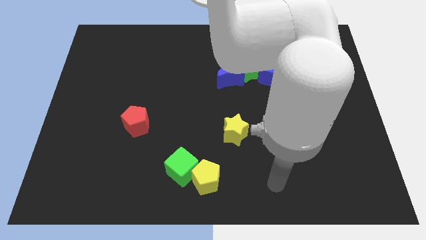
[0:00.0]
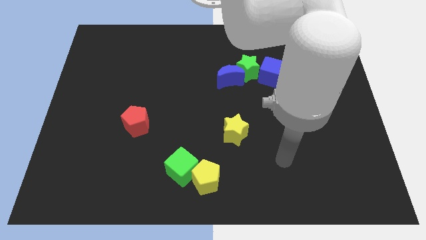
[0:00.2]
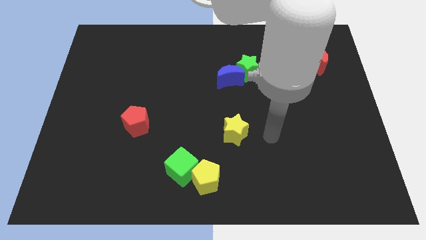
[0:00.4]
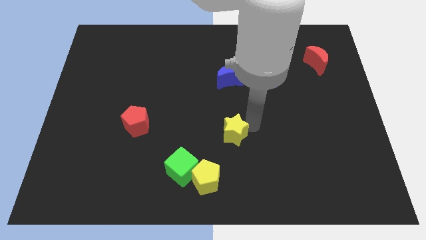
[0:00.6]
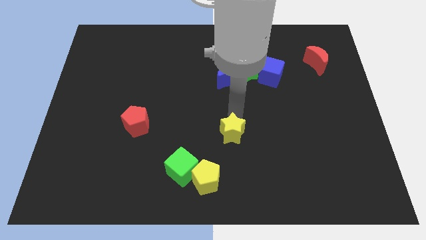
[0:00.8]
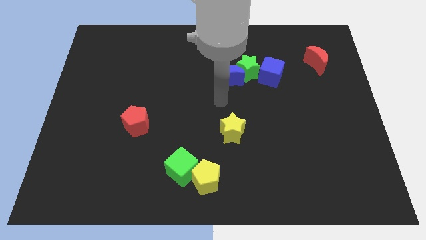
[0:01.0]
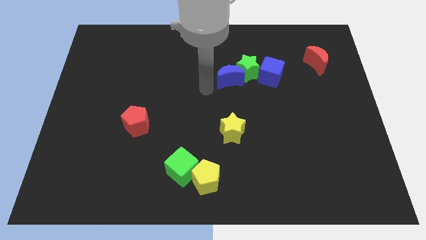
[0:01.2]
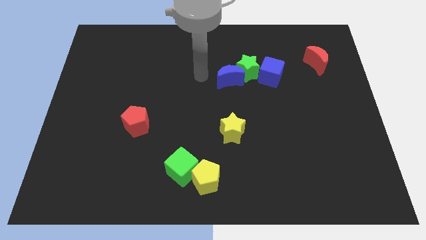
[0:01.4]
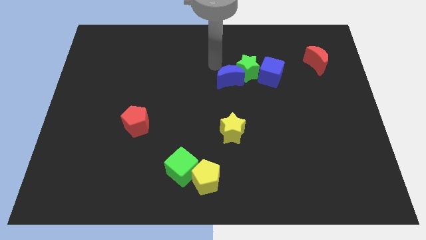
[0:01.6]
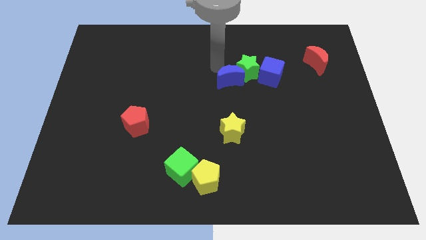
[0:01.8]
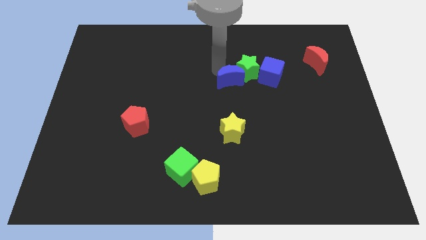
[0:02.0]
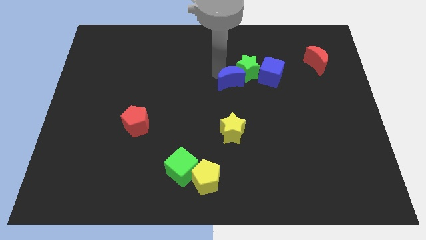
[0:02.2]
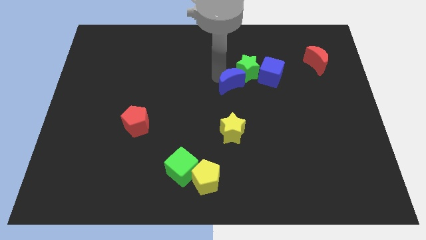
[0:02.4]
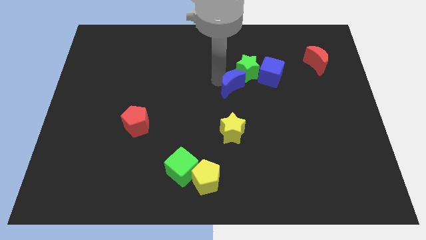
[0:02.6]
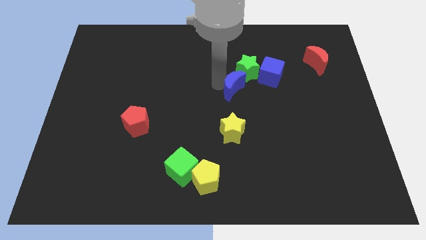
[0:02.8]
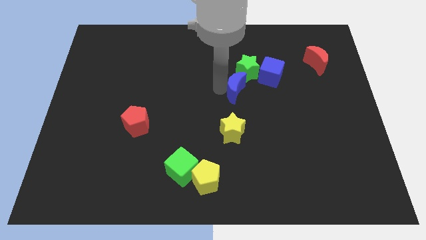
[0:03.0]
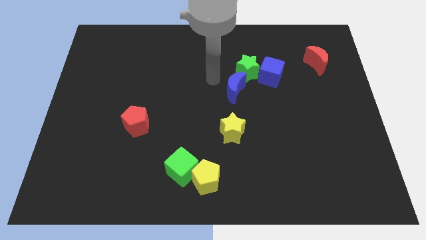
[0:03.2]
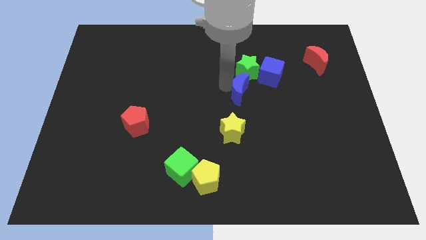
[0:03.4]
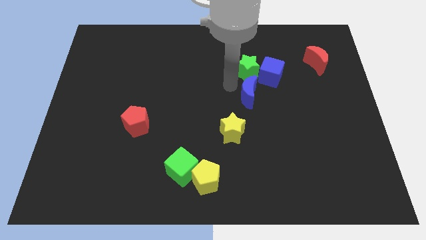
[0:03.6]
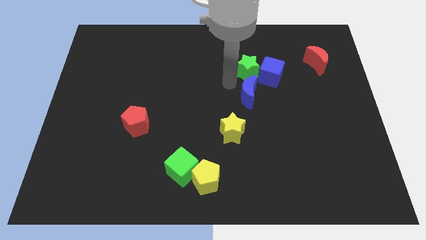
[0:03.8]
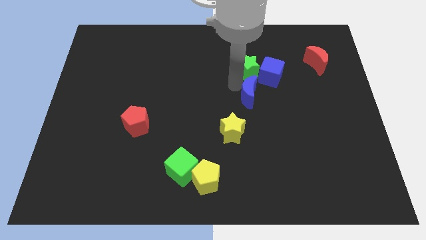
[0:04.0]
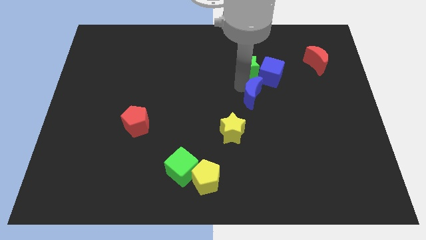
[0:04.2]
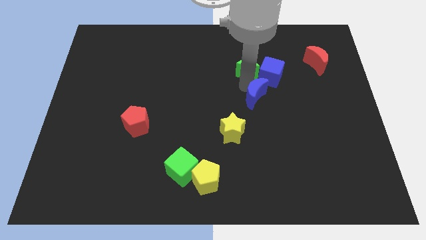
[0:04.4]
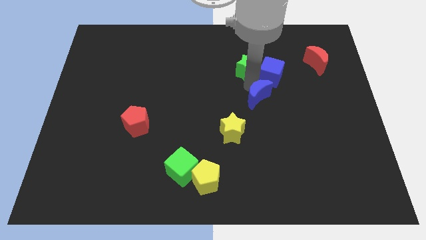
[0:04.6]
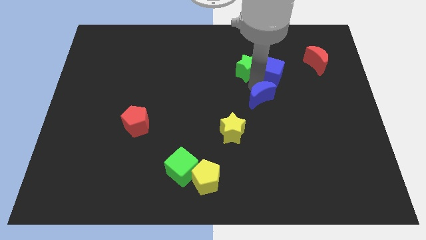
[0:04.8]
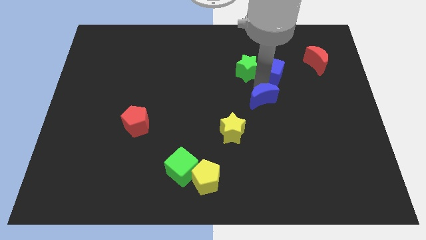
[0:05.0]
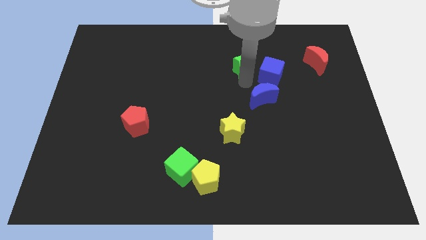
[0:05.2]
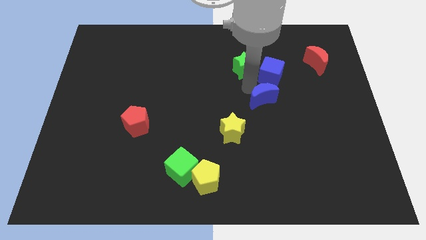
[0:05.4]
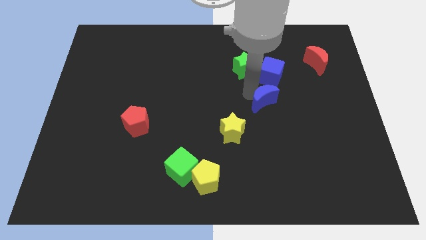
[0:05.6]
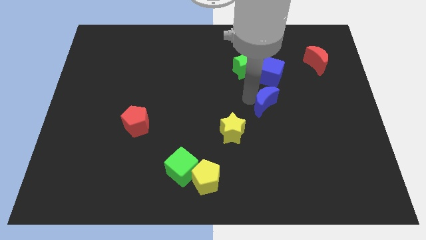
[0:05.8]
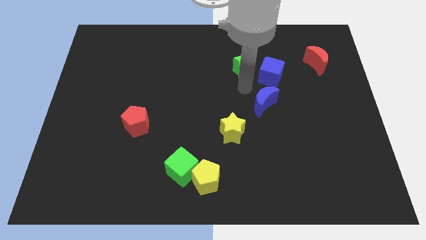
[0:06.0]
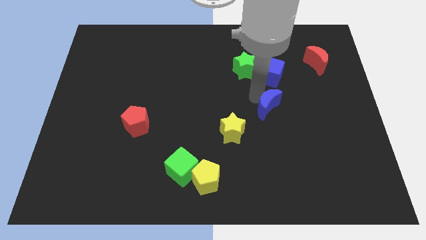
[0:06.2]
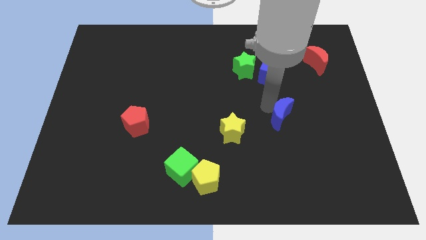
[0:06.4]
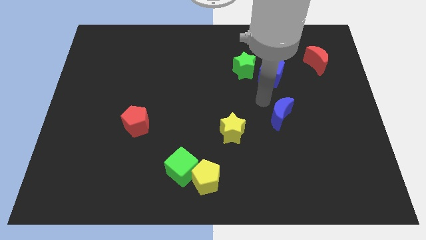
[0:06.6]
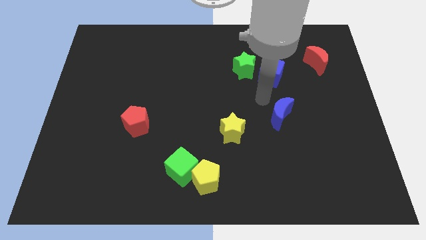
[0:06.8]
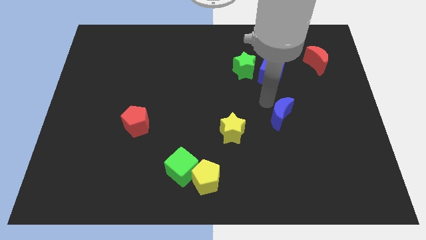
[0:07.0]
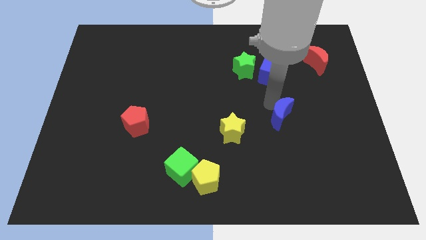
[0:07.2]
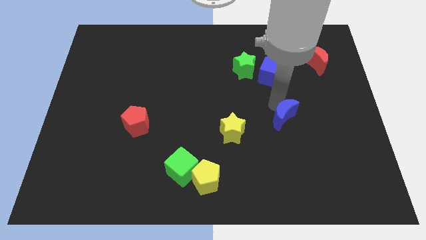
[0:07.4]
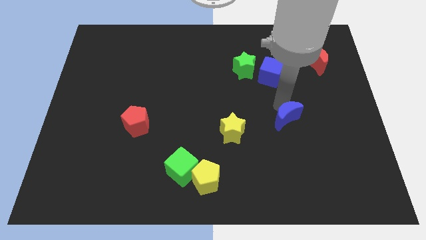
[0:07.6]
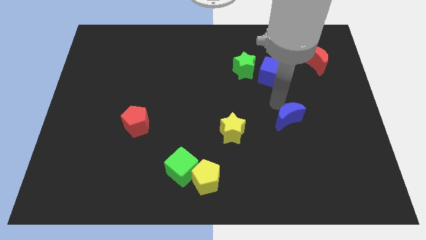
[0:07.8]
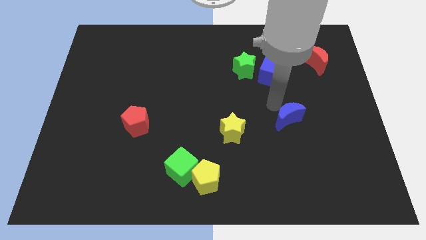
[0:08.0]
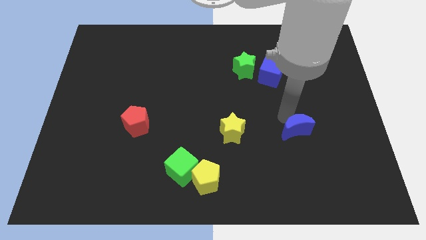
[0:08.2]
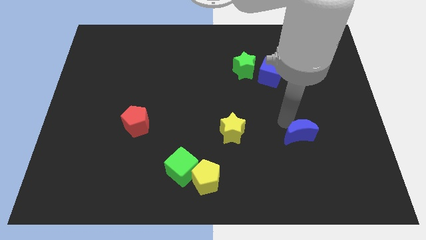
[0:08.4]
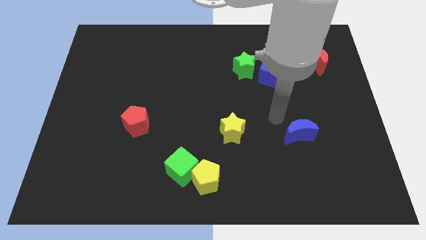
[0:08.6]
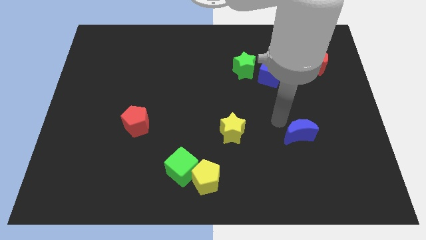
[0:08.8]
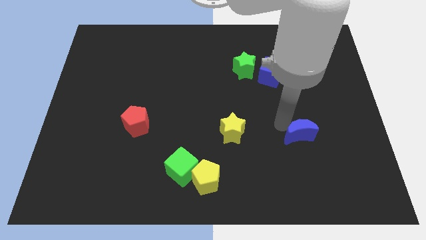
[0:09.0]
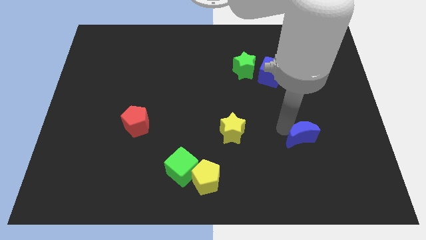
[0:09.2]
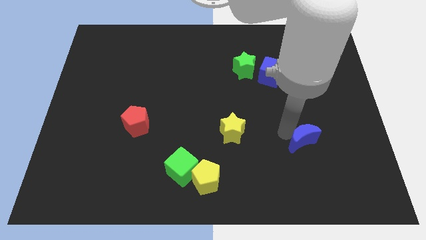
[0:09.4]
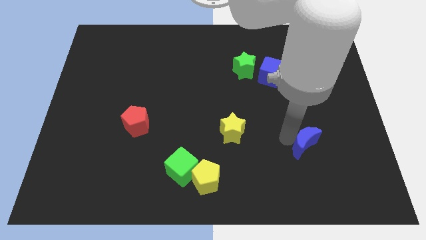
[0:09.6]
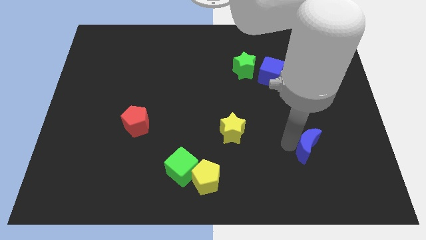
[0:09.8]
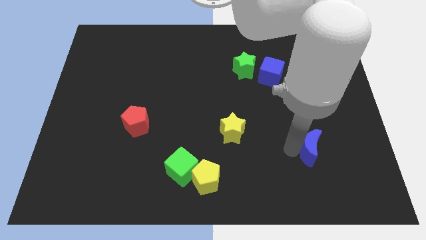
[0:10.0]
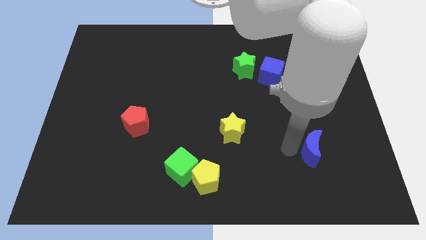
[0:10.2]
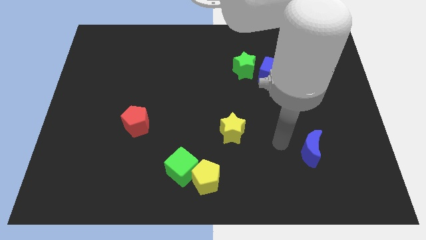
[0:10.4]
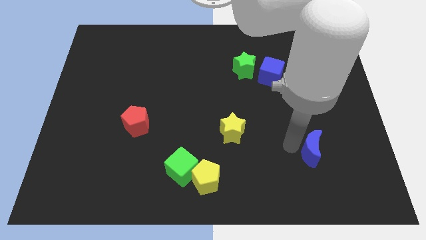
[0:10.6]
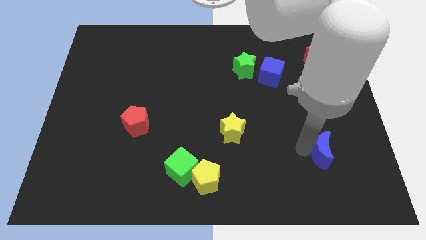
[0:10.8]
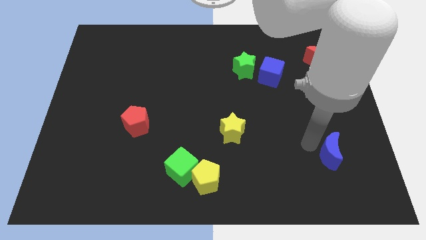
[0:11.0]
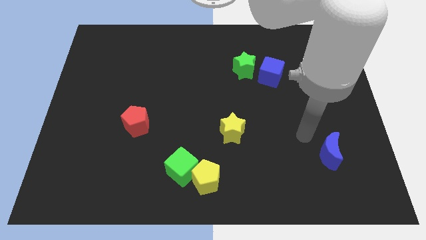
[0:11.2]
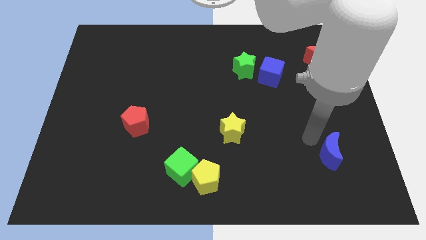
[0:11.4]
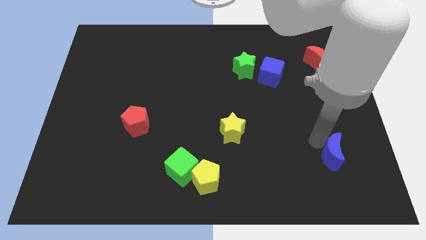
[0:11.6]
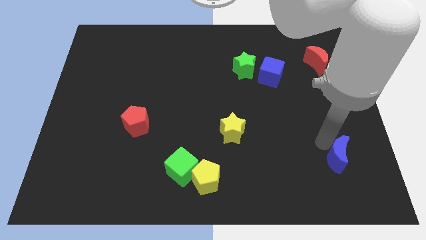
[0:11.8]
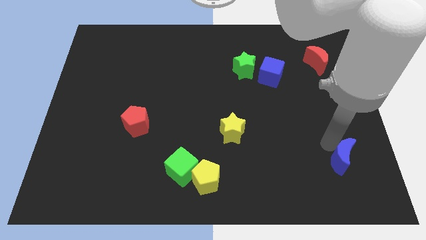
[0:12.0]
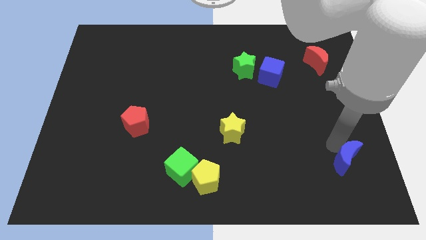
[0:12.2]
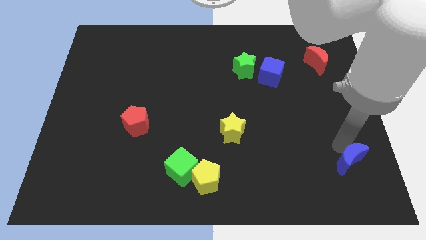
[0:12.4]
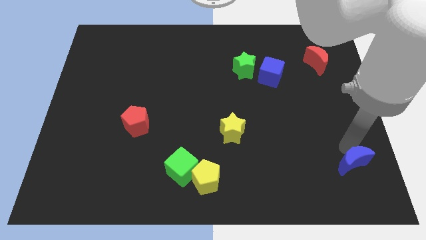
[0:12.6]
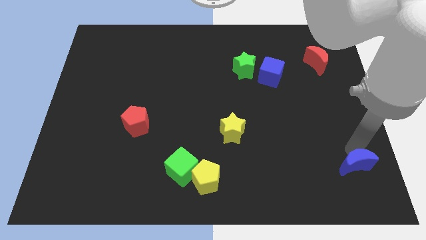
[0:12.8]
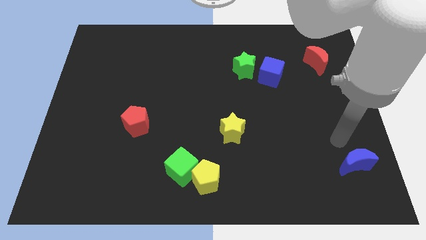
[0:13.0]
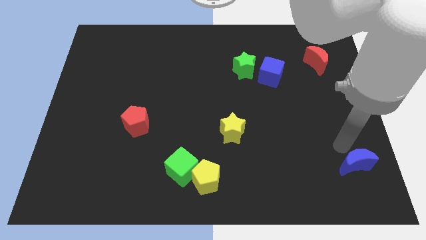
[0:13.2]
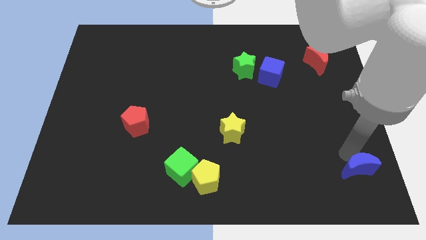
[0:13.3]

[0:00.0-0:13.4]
put the blue moon to the bottom right

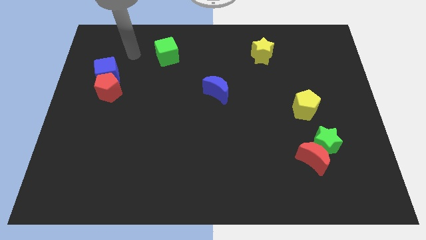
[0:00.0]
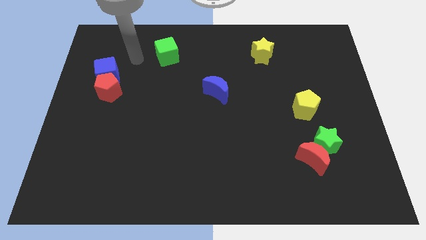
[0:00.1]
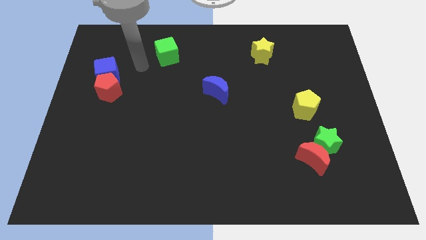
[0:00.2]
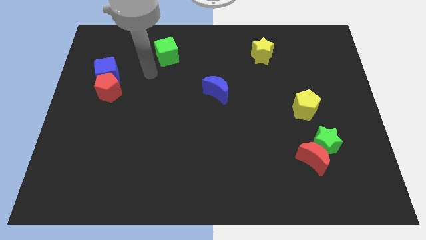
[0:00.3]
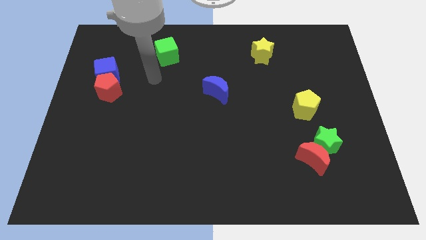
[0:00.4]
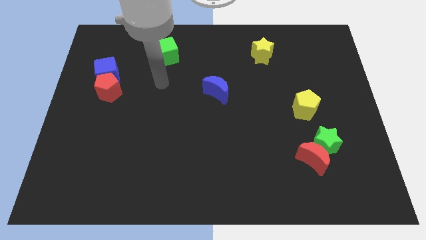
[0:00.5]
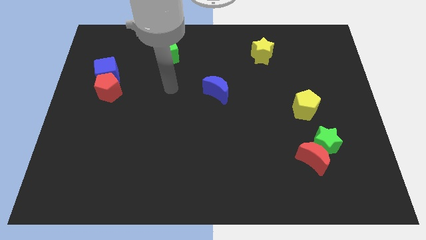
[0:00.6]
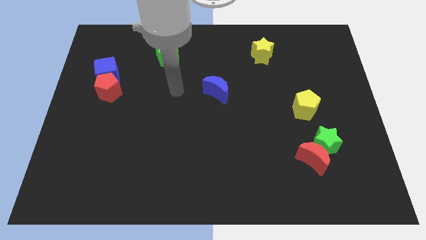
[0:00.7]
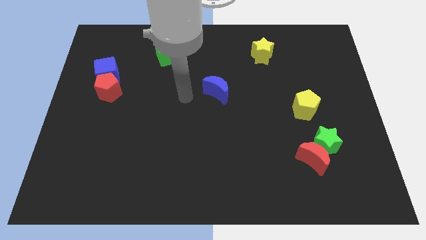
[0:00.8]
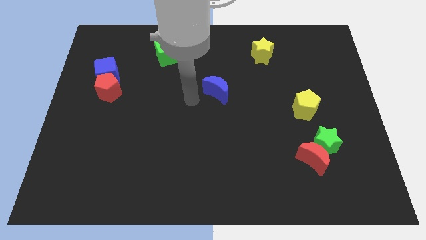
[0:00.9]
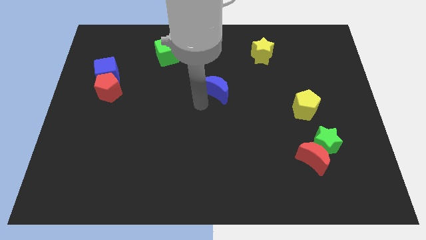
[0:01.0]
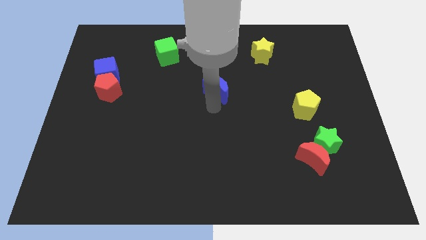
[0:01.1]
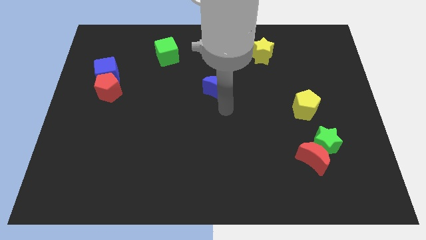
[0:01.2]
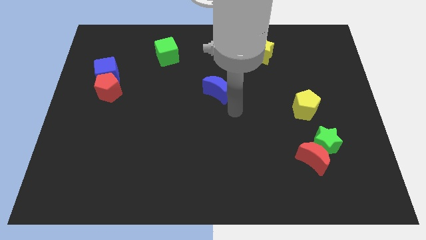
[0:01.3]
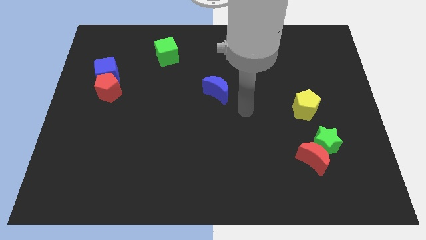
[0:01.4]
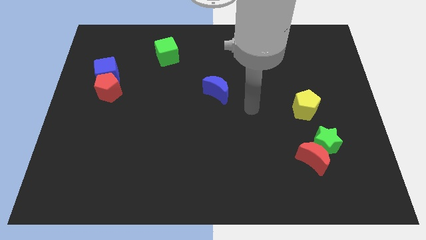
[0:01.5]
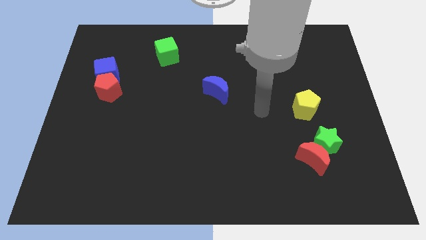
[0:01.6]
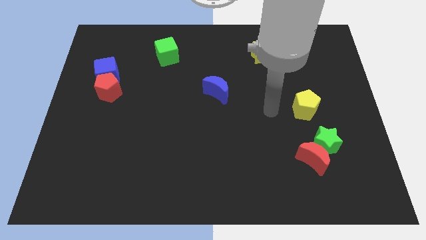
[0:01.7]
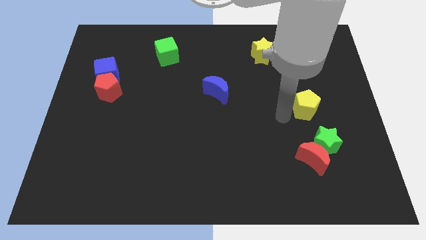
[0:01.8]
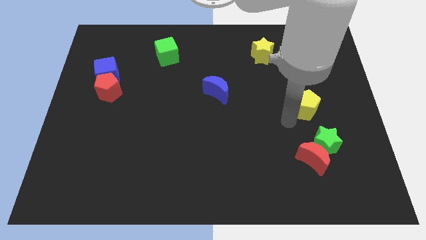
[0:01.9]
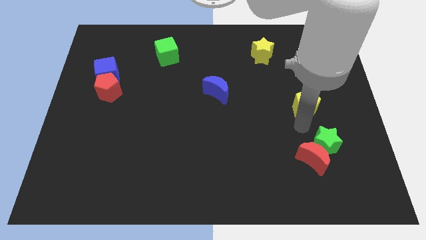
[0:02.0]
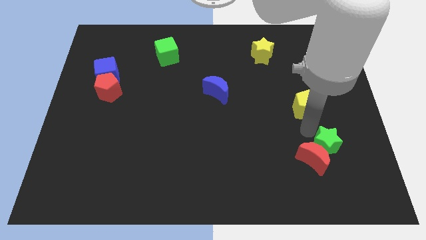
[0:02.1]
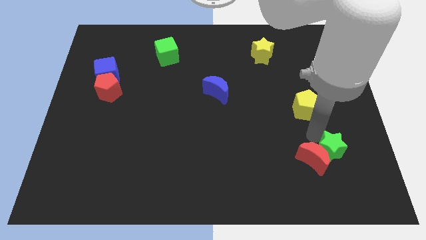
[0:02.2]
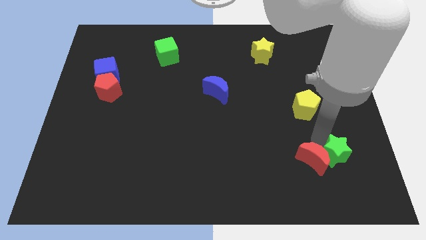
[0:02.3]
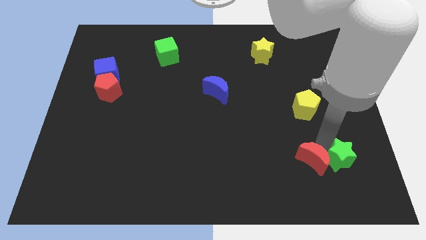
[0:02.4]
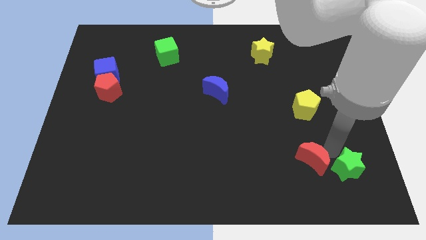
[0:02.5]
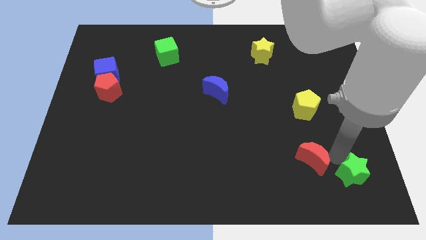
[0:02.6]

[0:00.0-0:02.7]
move the green star to the lower right corner
